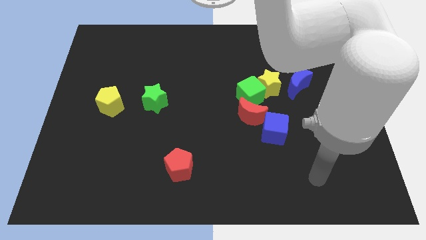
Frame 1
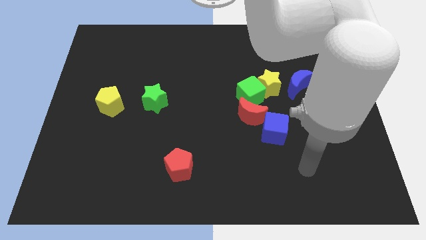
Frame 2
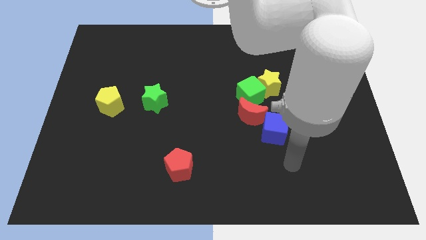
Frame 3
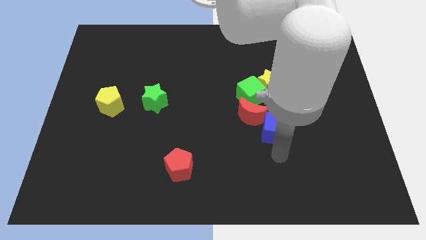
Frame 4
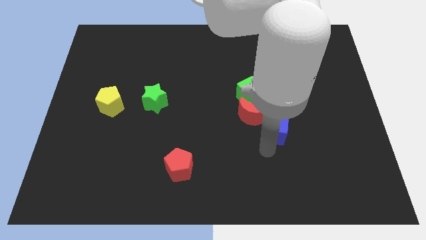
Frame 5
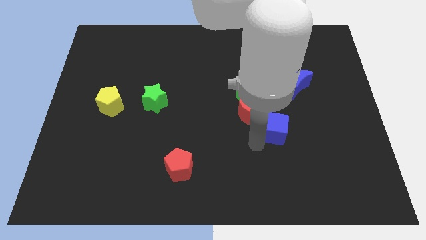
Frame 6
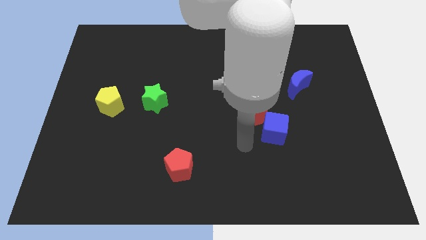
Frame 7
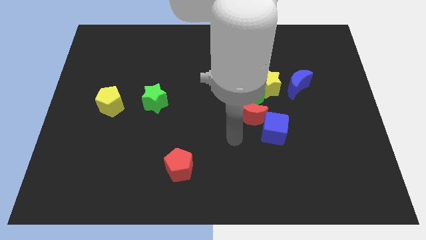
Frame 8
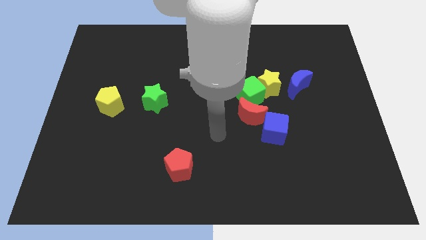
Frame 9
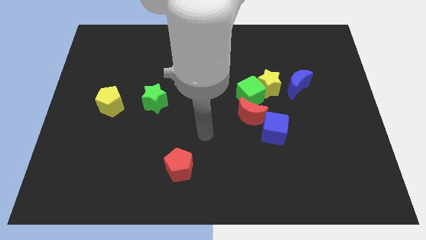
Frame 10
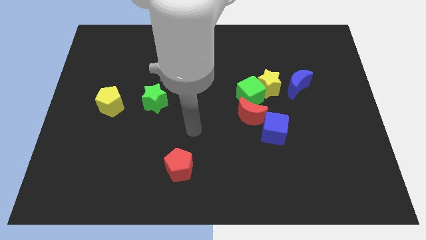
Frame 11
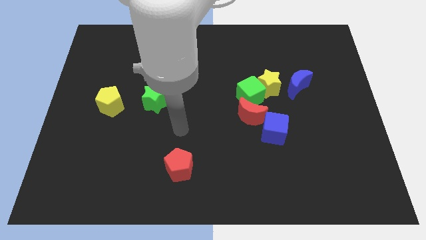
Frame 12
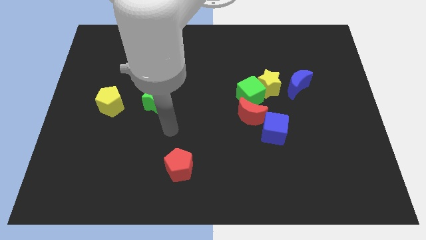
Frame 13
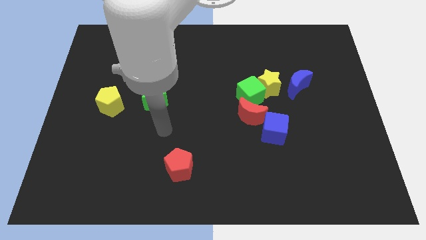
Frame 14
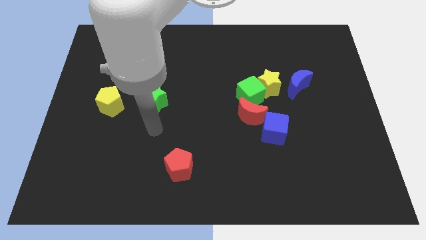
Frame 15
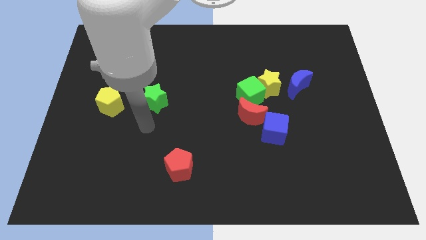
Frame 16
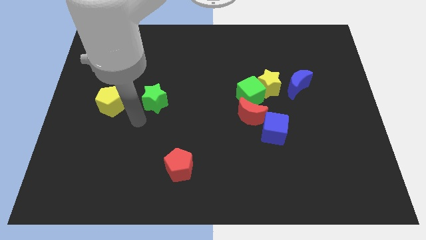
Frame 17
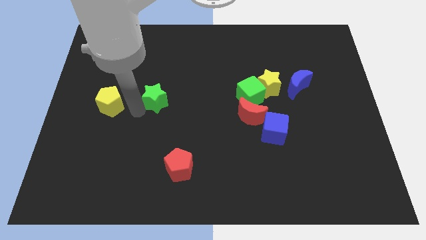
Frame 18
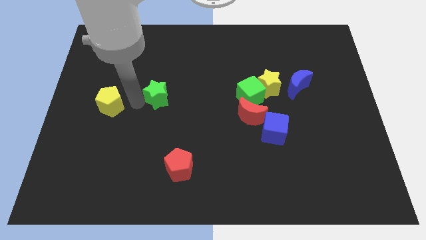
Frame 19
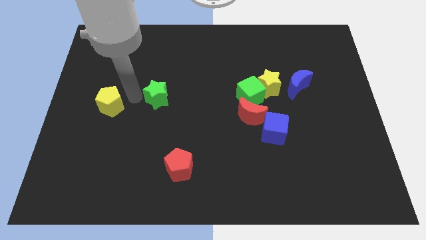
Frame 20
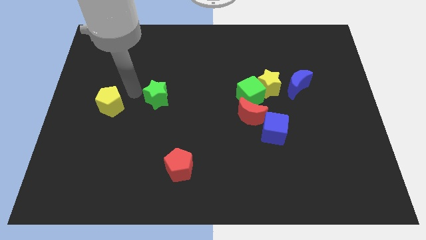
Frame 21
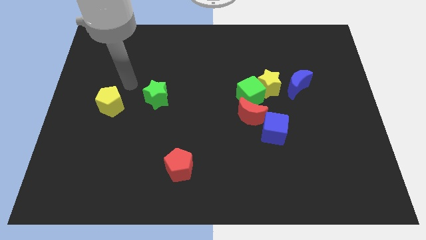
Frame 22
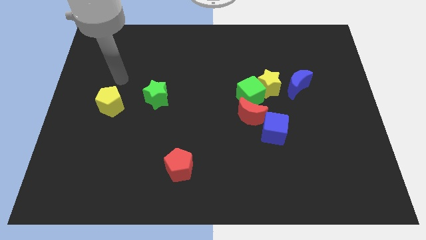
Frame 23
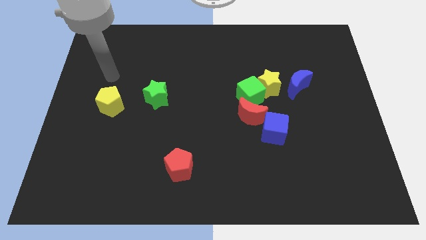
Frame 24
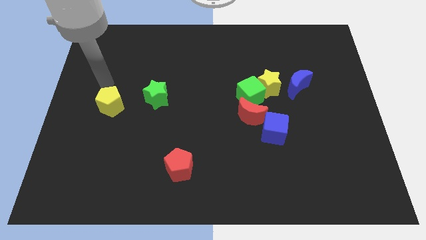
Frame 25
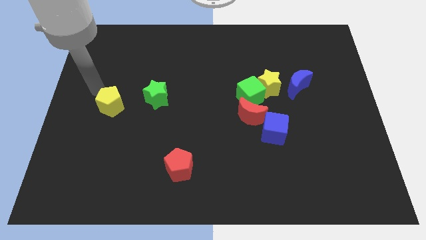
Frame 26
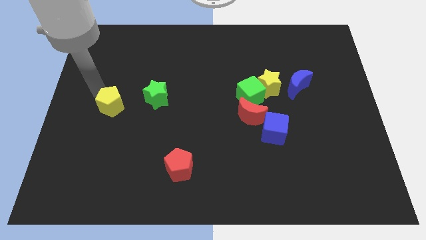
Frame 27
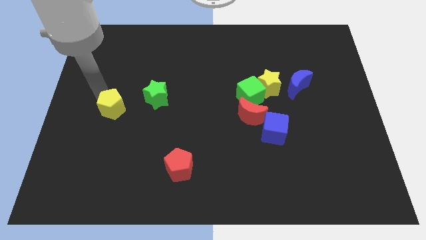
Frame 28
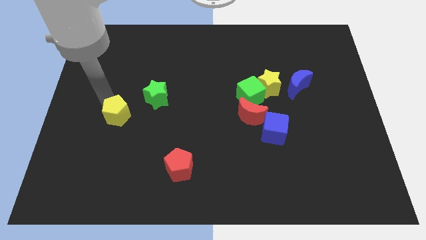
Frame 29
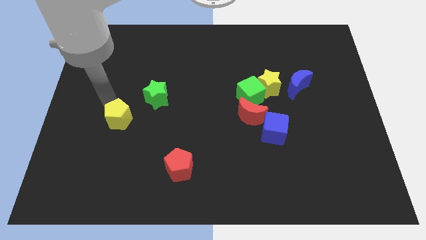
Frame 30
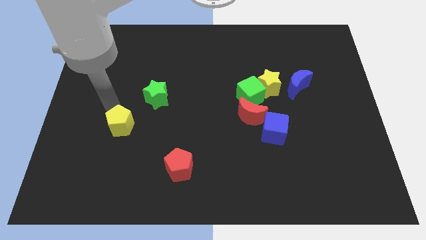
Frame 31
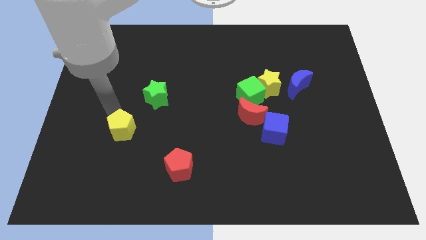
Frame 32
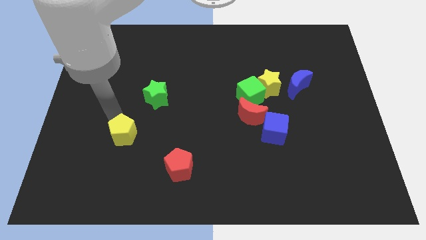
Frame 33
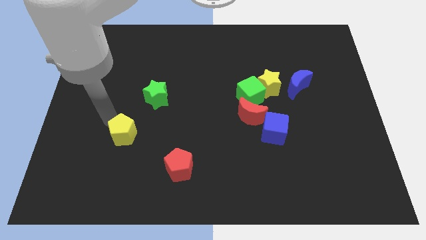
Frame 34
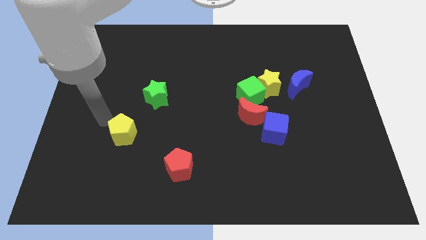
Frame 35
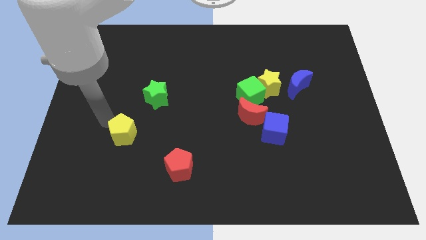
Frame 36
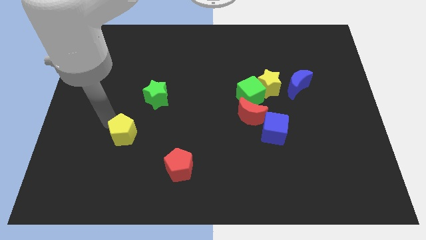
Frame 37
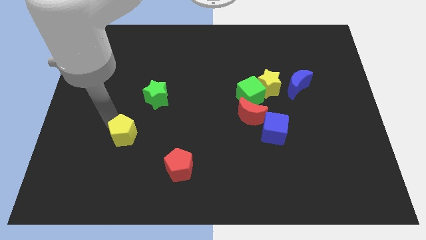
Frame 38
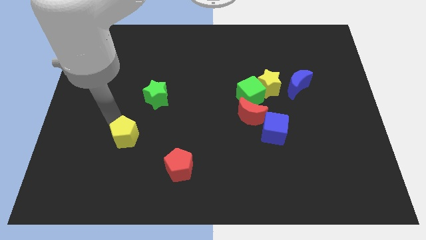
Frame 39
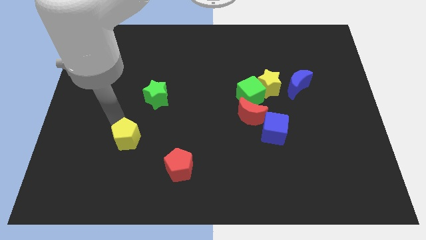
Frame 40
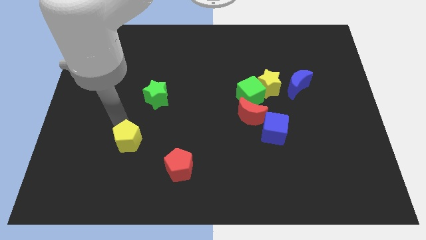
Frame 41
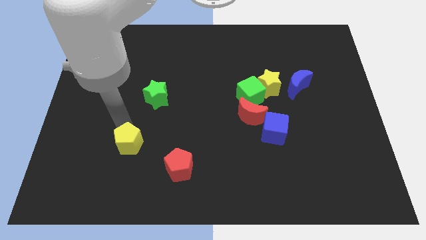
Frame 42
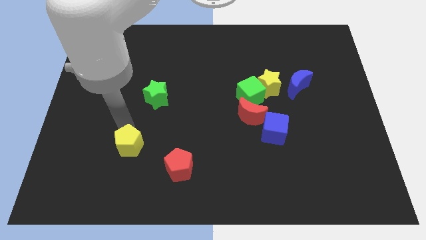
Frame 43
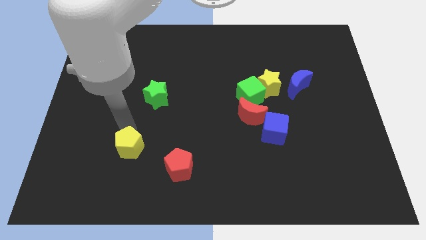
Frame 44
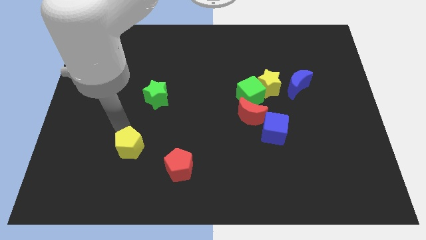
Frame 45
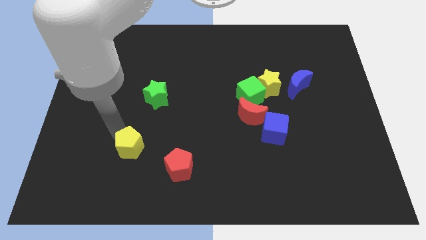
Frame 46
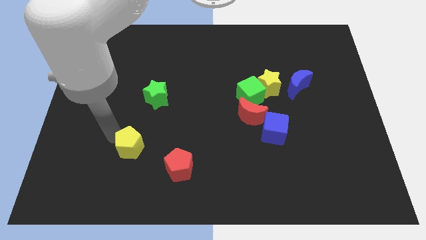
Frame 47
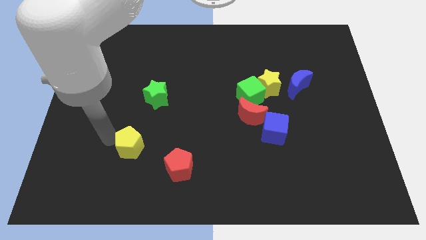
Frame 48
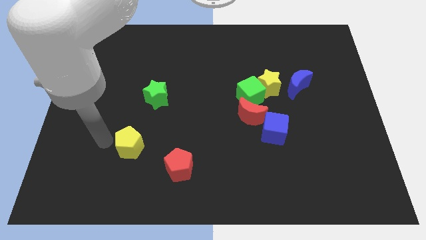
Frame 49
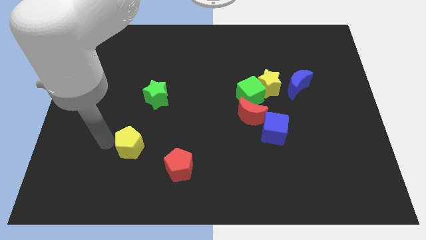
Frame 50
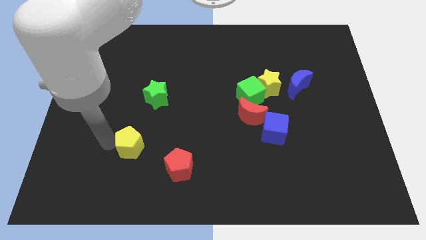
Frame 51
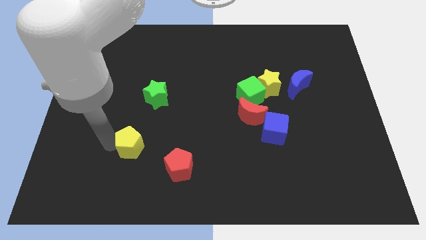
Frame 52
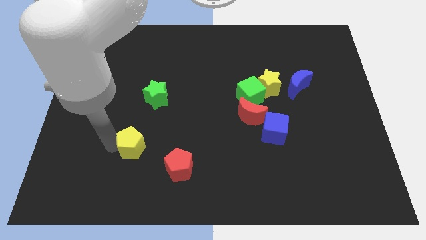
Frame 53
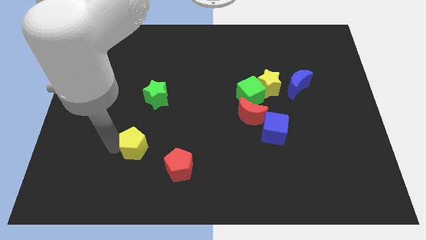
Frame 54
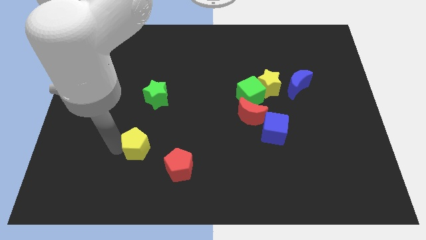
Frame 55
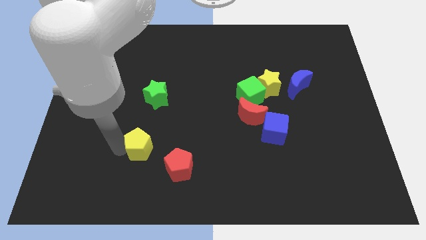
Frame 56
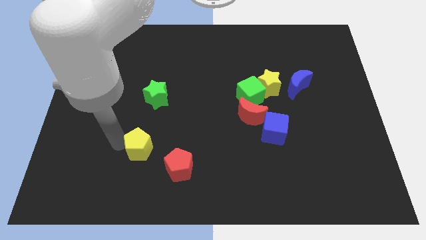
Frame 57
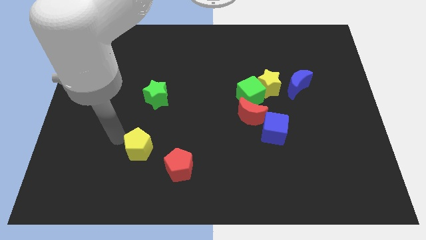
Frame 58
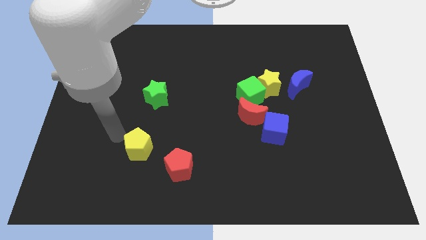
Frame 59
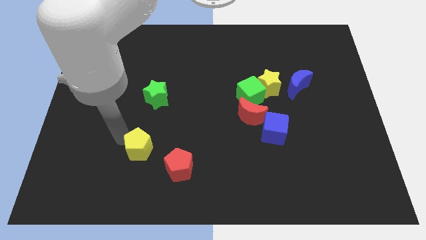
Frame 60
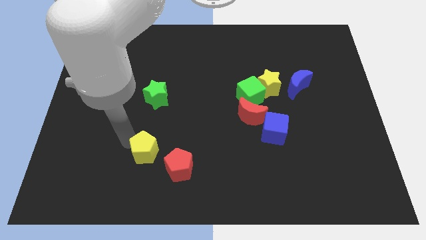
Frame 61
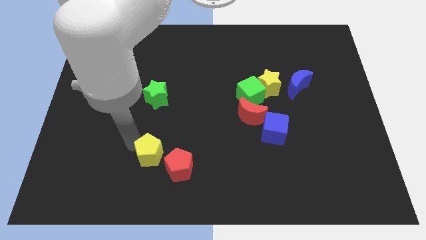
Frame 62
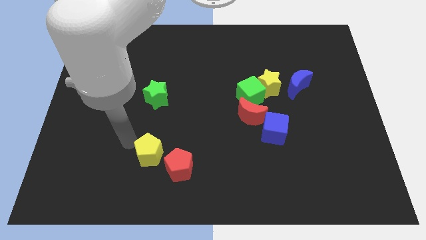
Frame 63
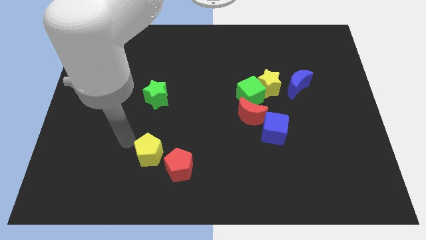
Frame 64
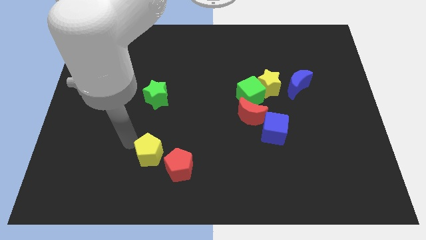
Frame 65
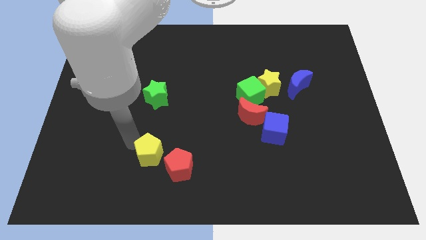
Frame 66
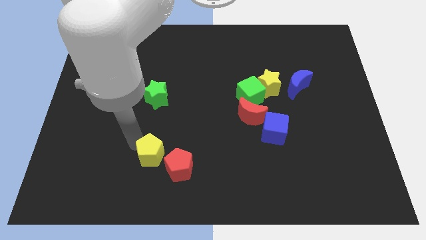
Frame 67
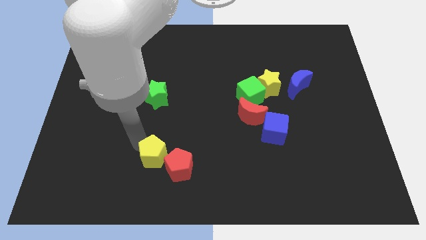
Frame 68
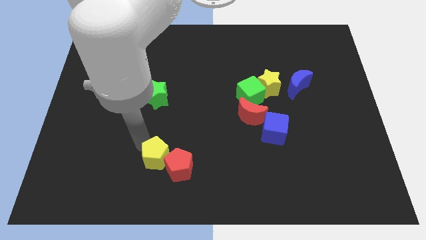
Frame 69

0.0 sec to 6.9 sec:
put the yellow pentagon to the red pentagon

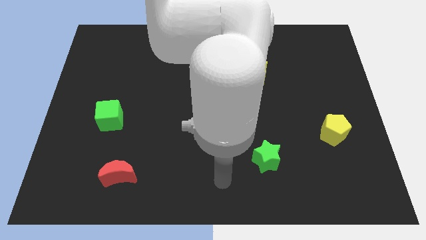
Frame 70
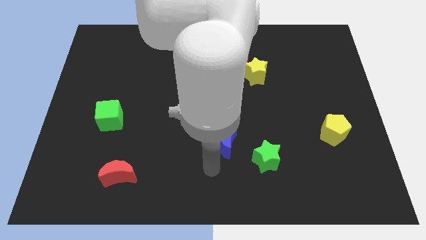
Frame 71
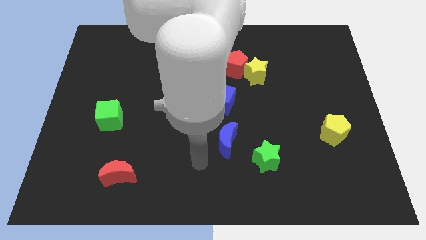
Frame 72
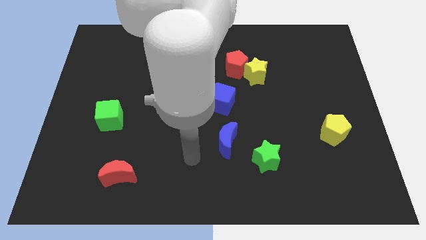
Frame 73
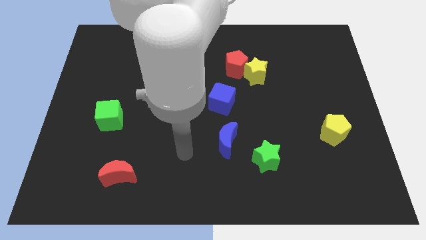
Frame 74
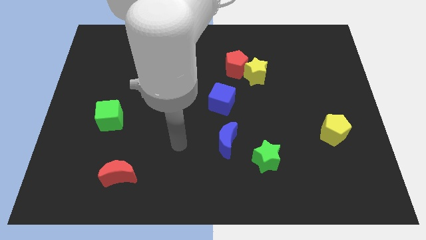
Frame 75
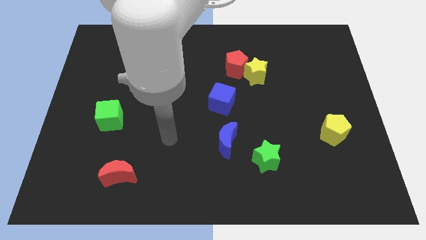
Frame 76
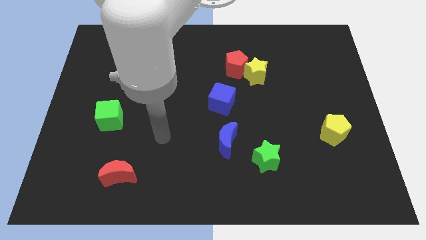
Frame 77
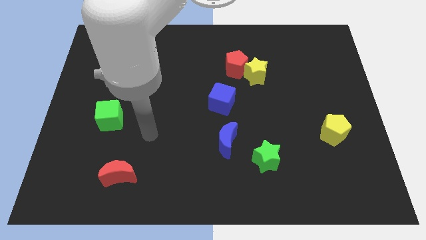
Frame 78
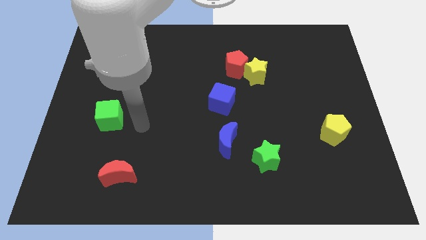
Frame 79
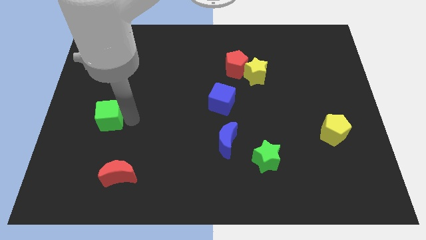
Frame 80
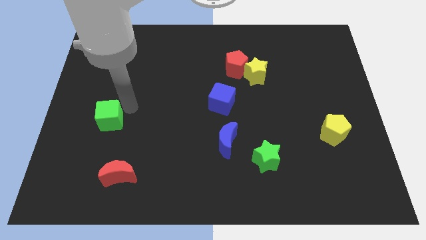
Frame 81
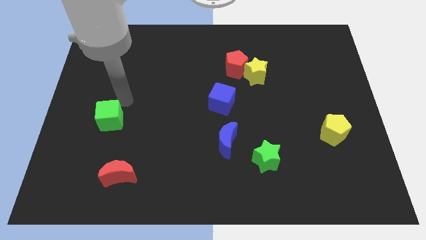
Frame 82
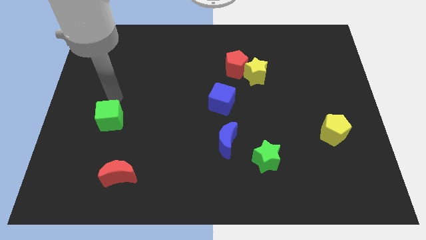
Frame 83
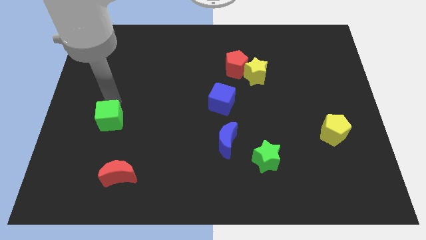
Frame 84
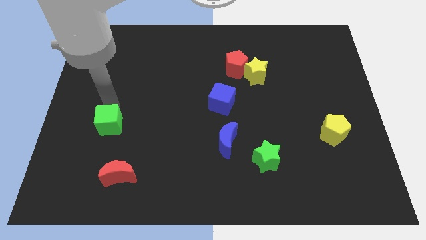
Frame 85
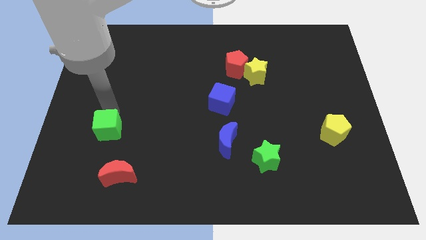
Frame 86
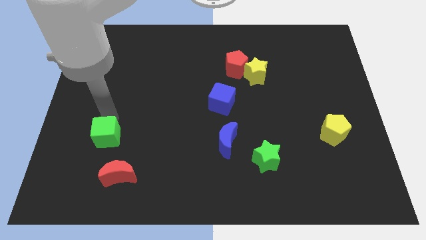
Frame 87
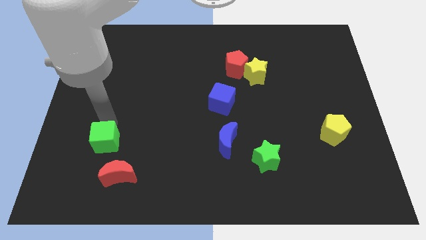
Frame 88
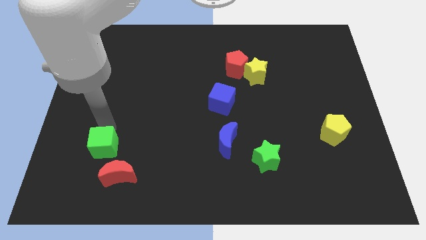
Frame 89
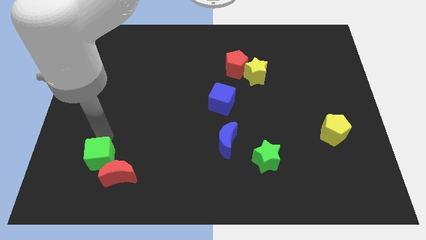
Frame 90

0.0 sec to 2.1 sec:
move the green cube towards the red moon
